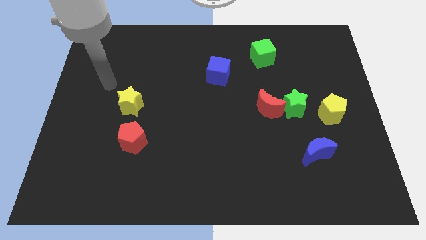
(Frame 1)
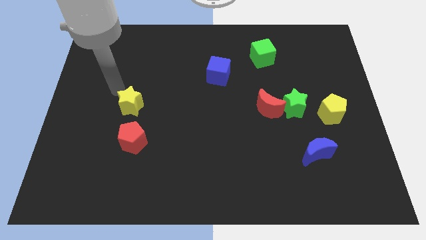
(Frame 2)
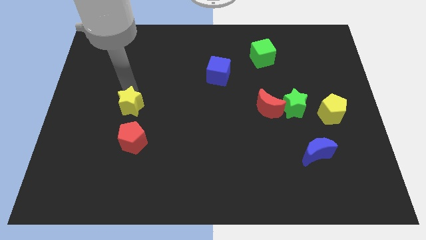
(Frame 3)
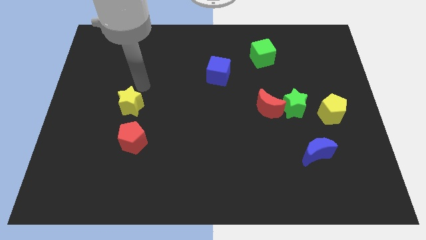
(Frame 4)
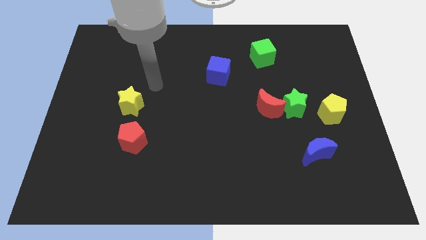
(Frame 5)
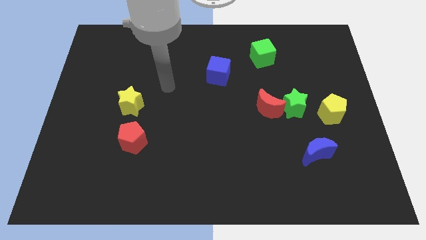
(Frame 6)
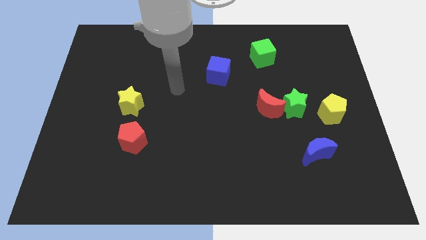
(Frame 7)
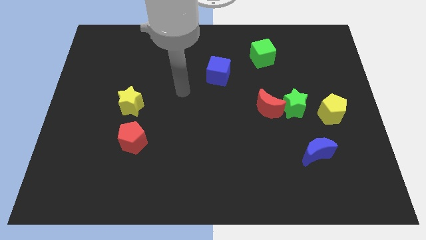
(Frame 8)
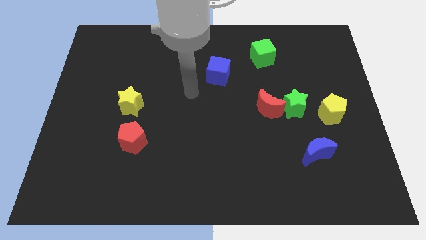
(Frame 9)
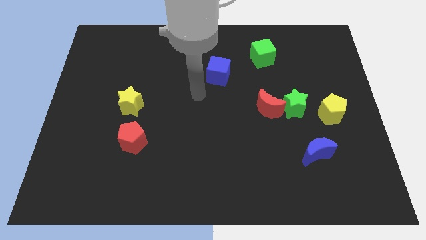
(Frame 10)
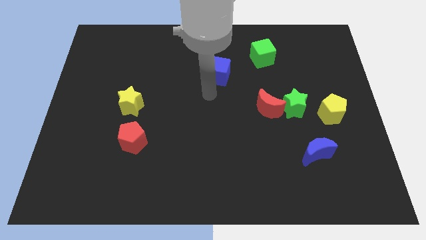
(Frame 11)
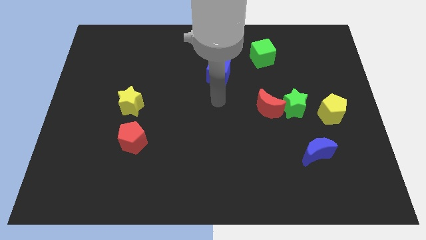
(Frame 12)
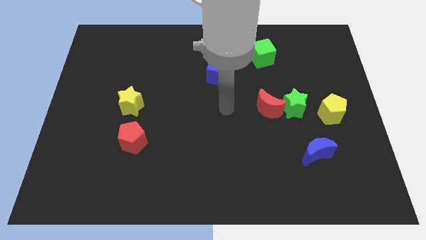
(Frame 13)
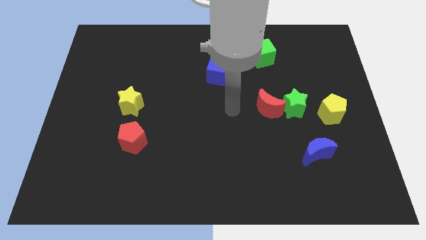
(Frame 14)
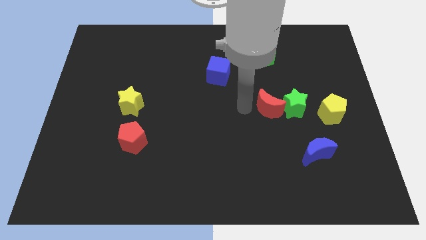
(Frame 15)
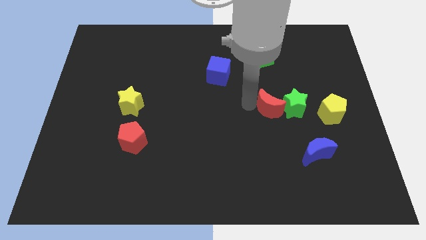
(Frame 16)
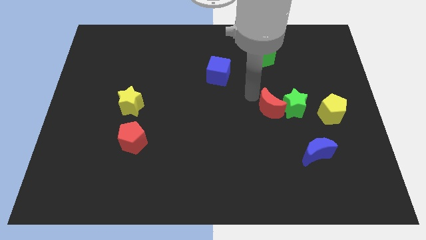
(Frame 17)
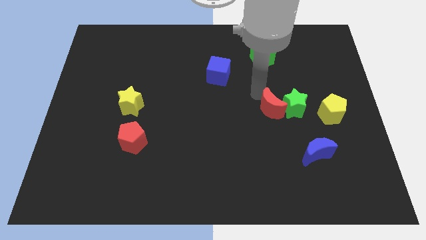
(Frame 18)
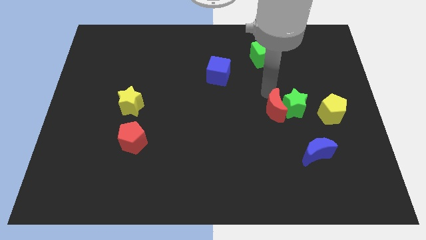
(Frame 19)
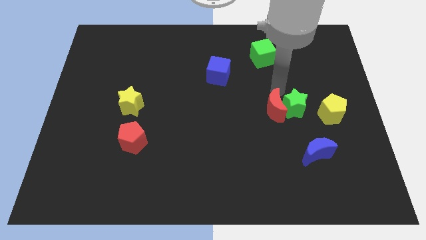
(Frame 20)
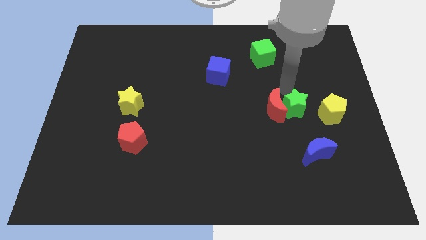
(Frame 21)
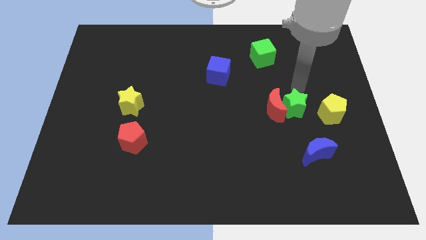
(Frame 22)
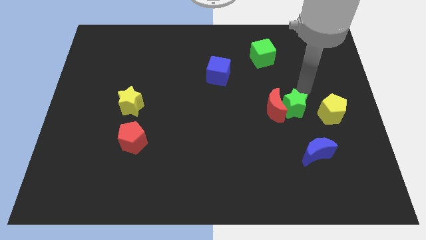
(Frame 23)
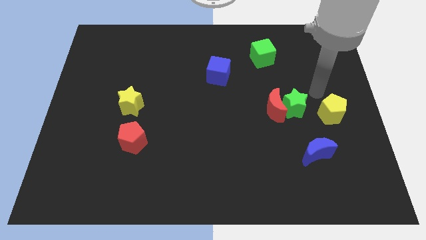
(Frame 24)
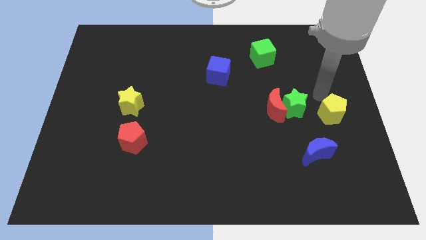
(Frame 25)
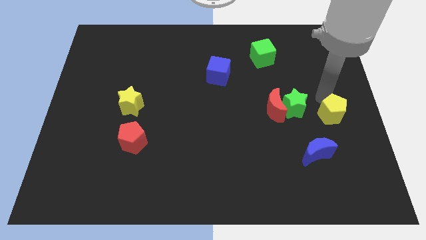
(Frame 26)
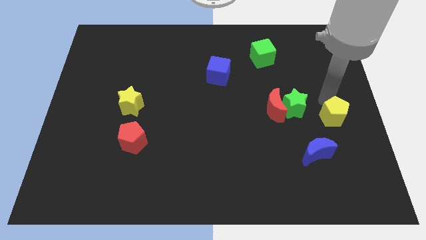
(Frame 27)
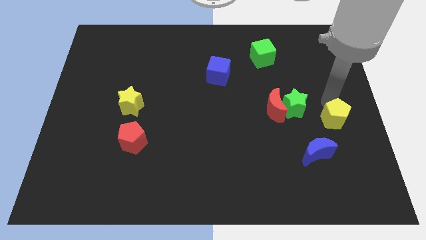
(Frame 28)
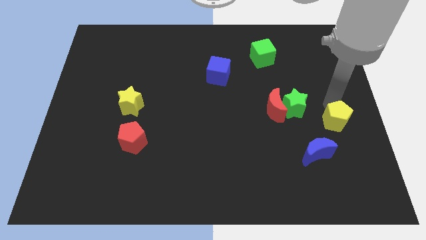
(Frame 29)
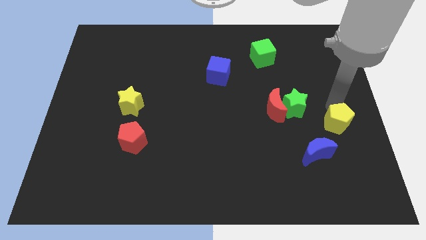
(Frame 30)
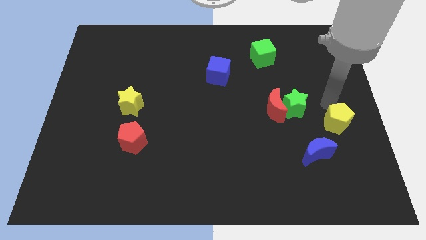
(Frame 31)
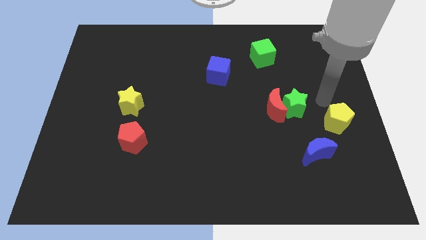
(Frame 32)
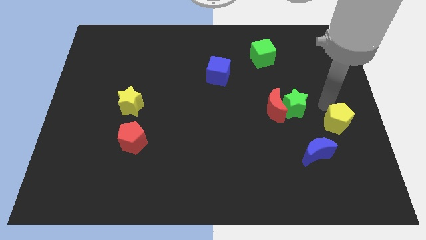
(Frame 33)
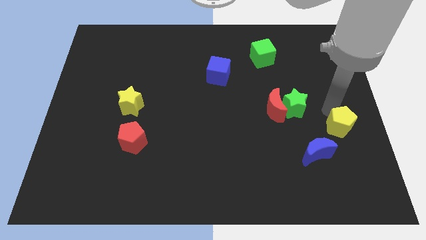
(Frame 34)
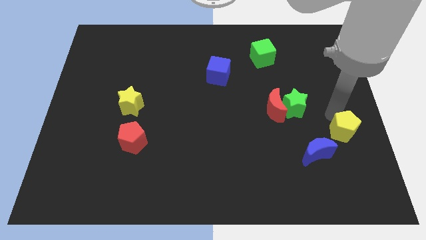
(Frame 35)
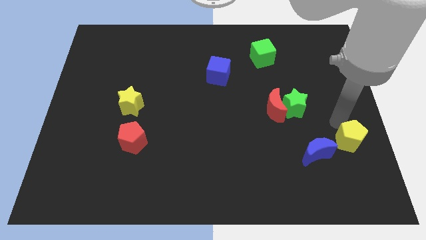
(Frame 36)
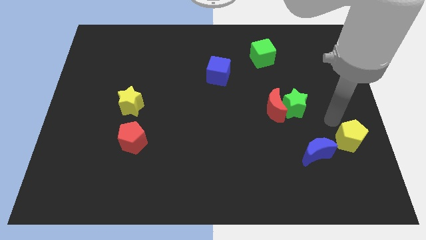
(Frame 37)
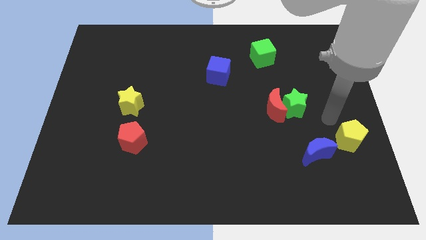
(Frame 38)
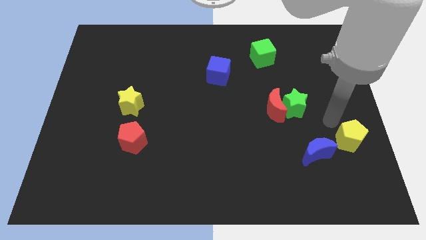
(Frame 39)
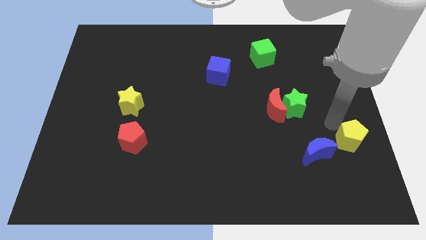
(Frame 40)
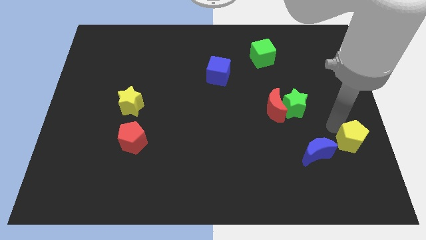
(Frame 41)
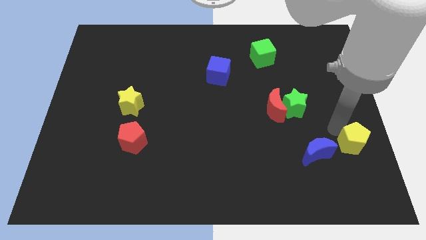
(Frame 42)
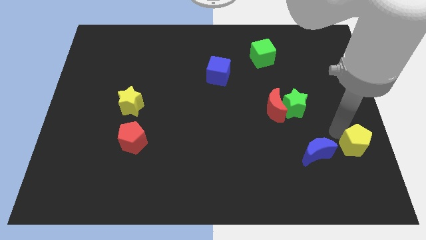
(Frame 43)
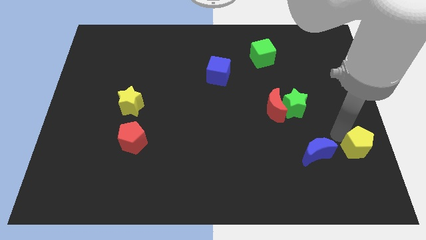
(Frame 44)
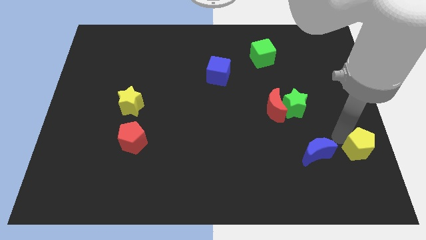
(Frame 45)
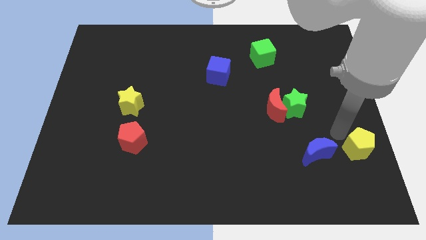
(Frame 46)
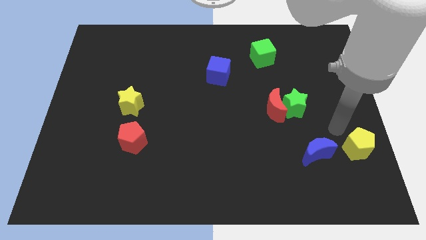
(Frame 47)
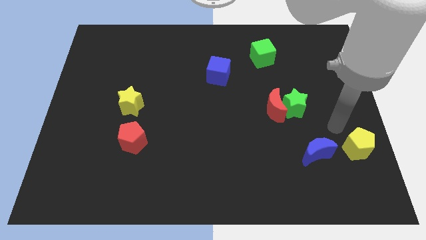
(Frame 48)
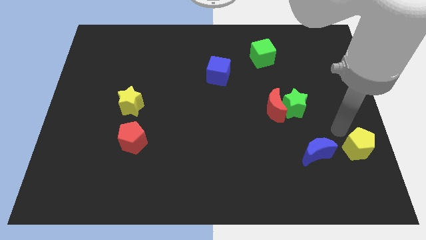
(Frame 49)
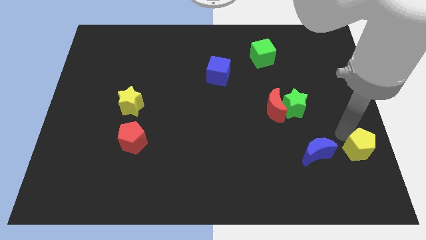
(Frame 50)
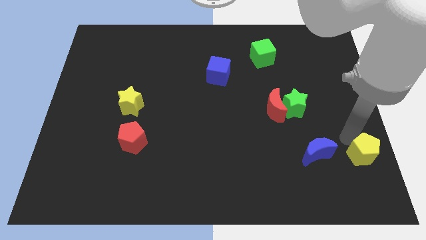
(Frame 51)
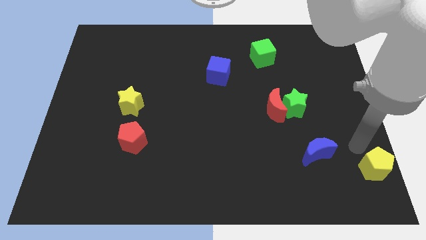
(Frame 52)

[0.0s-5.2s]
push the yellow pentagon to the bottom right corner

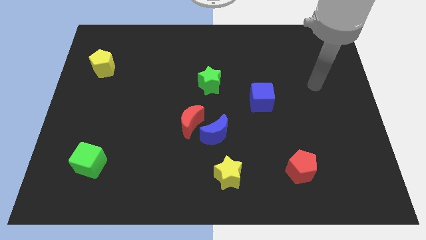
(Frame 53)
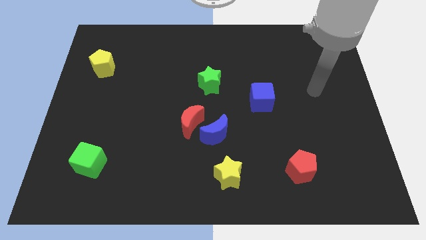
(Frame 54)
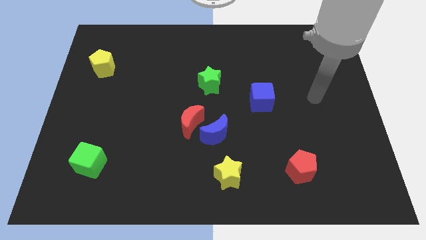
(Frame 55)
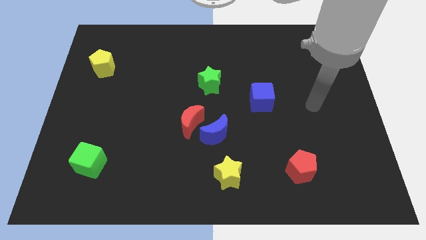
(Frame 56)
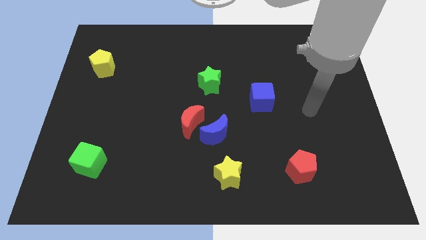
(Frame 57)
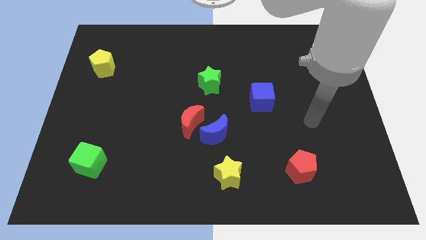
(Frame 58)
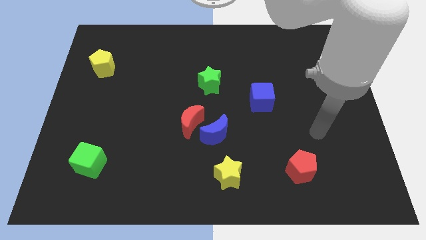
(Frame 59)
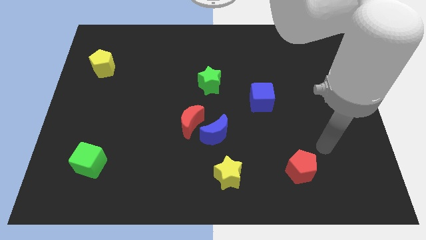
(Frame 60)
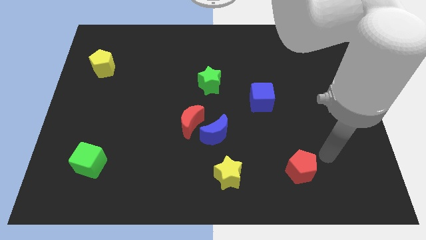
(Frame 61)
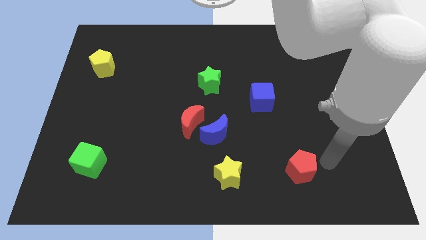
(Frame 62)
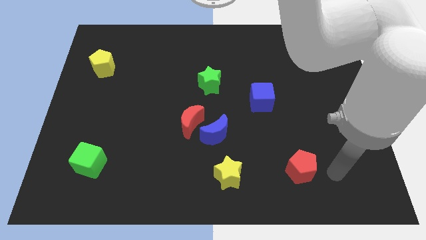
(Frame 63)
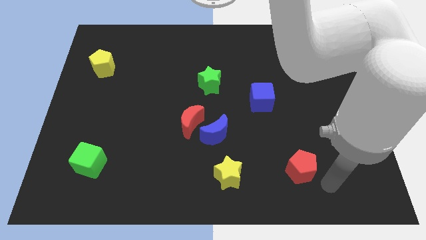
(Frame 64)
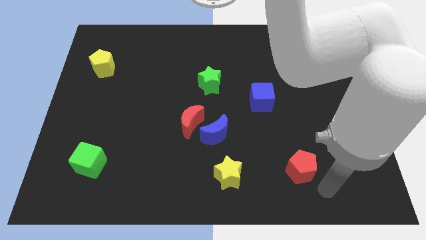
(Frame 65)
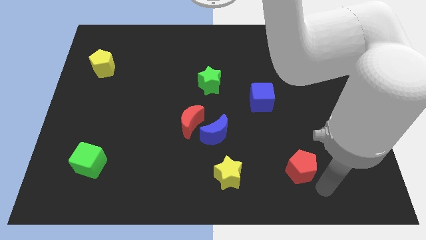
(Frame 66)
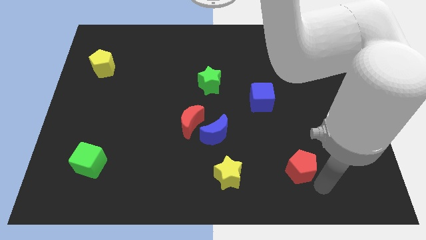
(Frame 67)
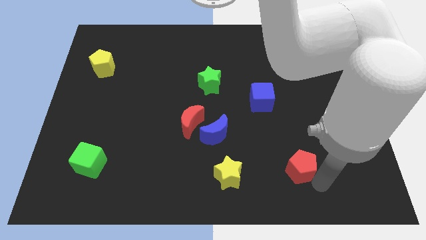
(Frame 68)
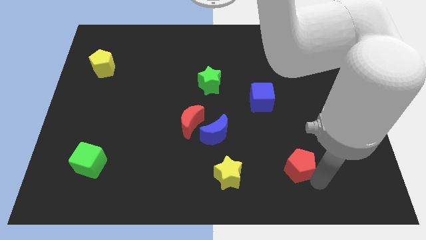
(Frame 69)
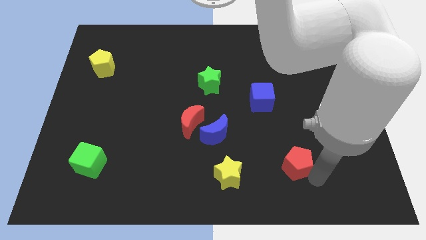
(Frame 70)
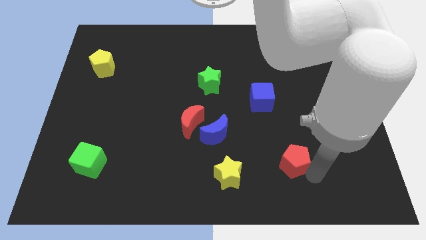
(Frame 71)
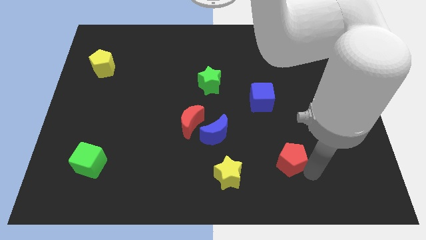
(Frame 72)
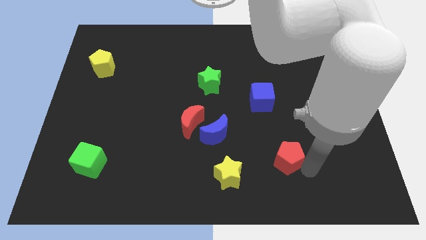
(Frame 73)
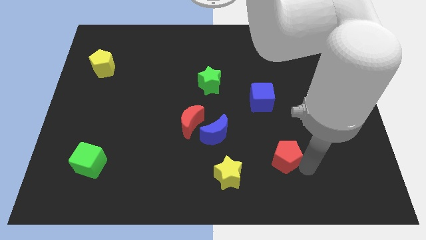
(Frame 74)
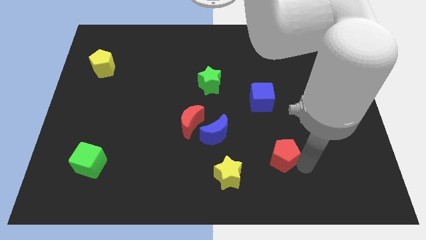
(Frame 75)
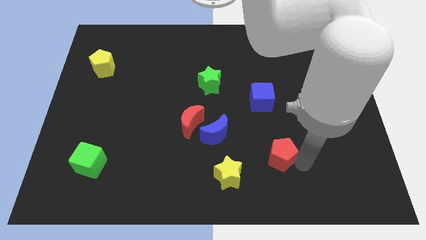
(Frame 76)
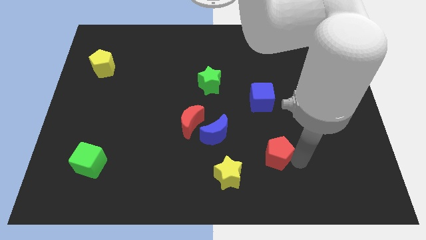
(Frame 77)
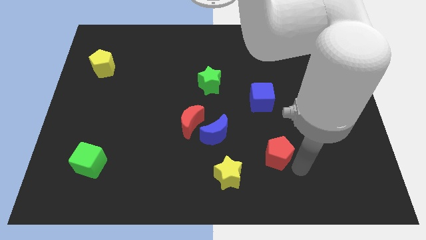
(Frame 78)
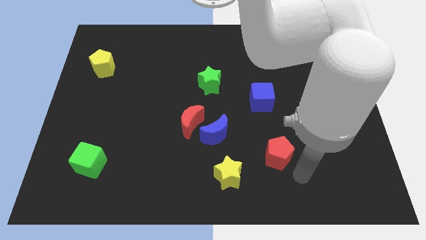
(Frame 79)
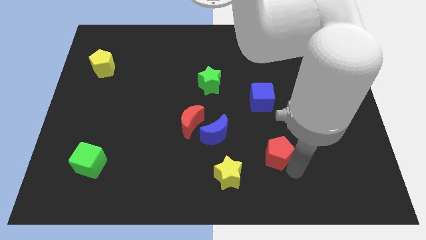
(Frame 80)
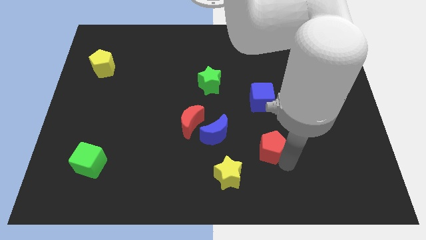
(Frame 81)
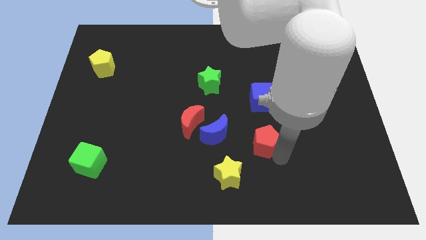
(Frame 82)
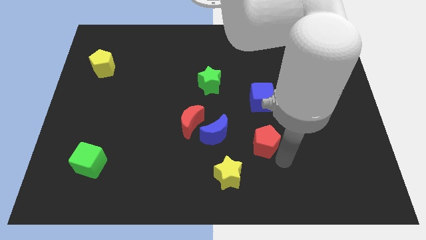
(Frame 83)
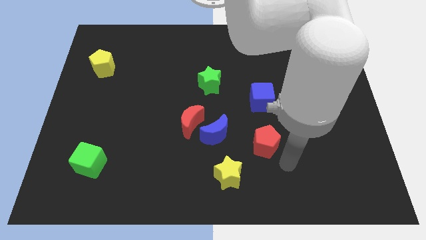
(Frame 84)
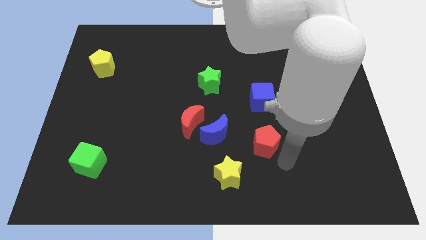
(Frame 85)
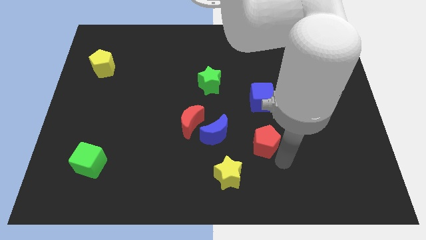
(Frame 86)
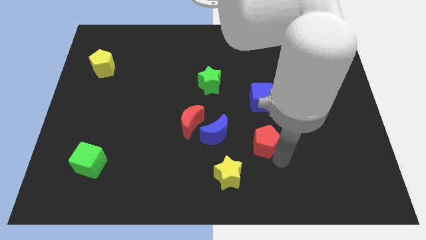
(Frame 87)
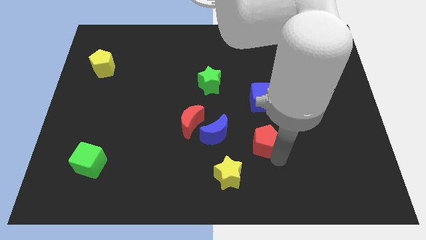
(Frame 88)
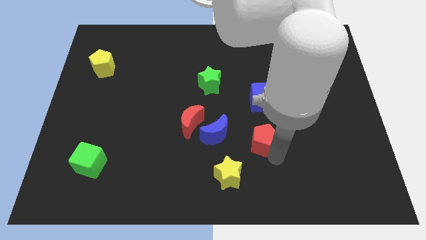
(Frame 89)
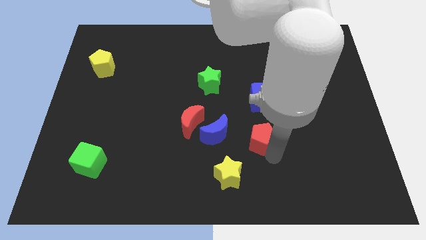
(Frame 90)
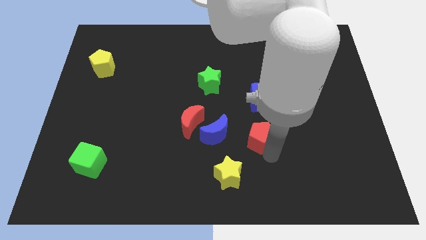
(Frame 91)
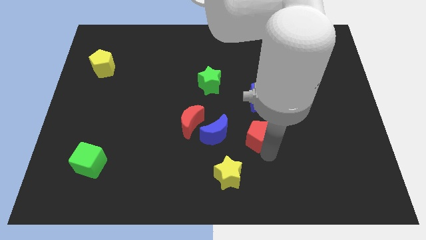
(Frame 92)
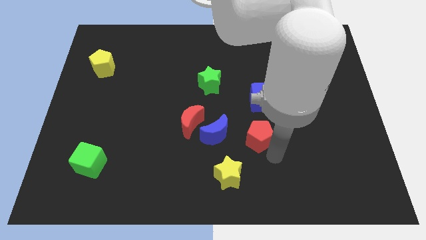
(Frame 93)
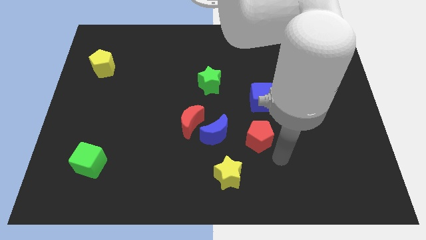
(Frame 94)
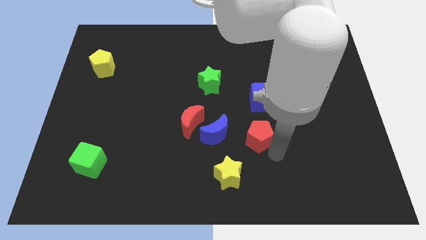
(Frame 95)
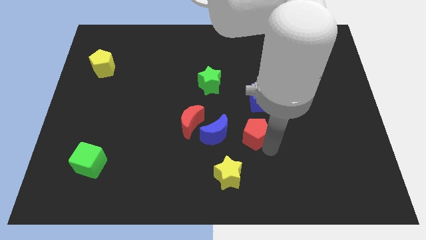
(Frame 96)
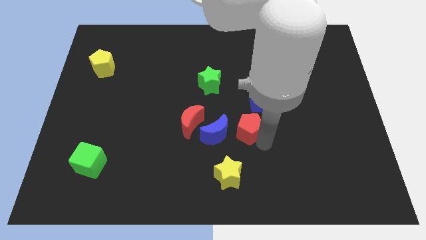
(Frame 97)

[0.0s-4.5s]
move the red pentagon to the middle
